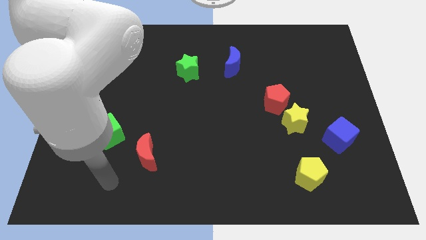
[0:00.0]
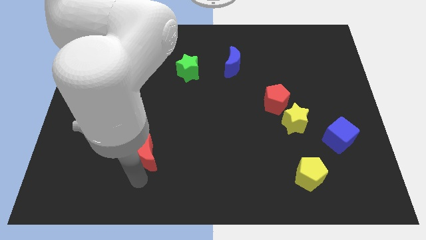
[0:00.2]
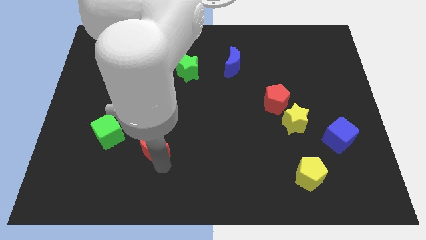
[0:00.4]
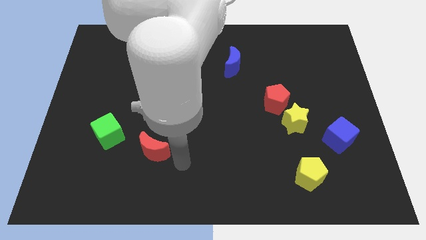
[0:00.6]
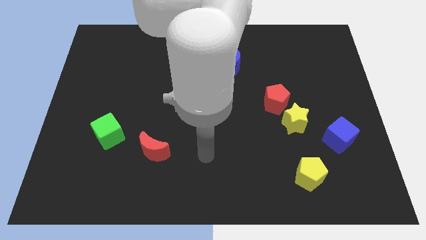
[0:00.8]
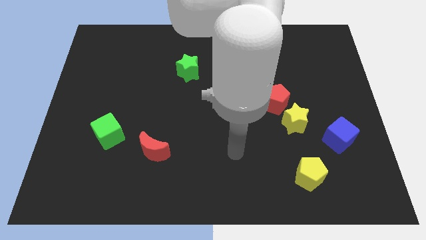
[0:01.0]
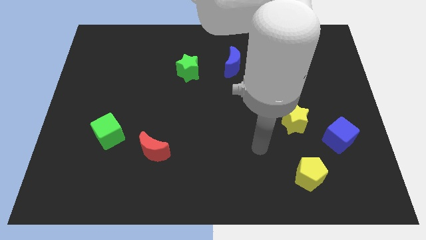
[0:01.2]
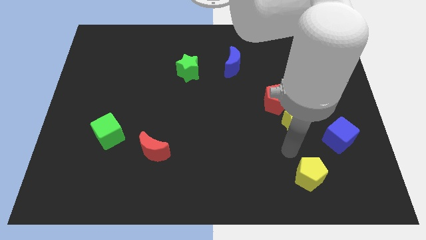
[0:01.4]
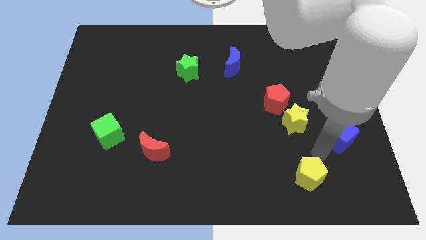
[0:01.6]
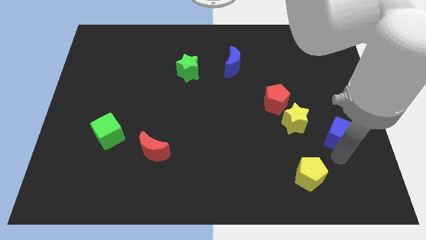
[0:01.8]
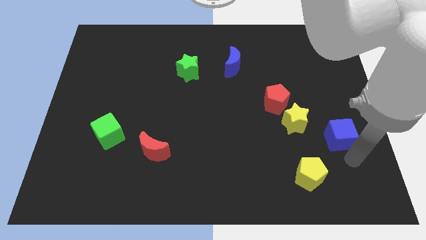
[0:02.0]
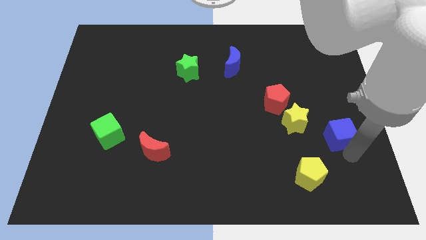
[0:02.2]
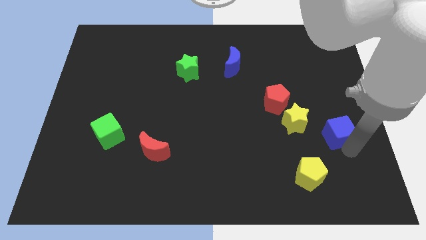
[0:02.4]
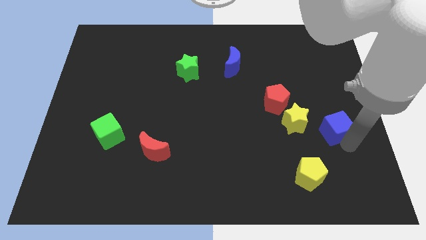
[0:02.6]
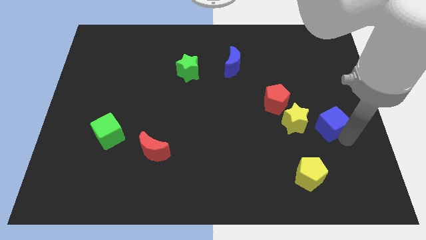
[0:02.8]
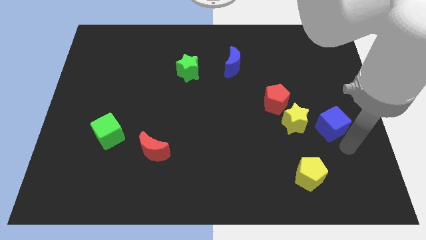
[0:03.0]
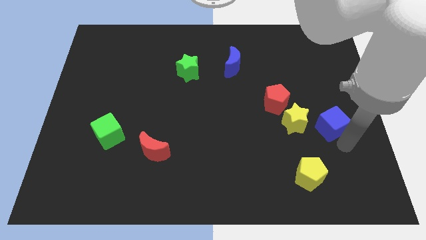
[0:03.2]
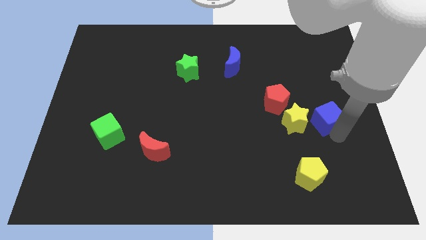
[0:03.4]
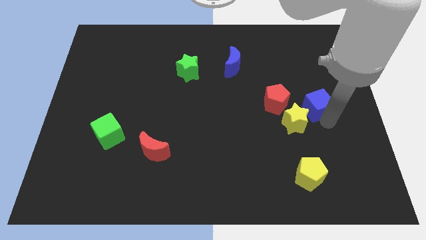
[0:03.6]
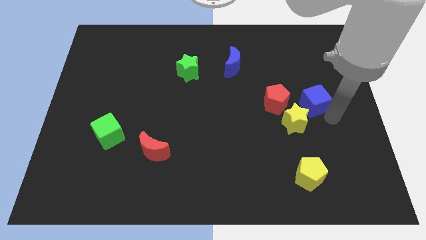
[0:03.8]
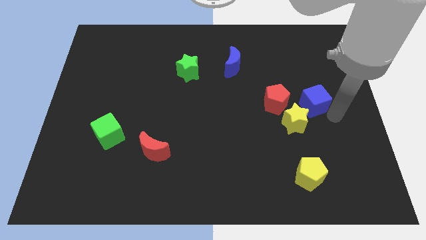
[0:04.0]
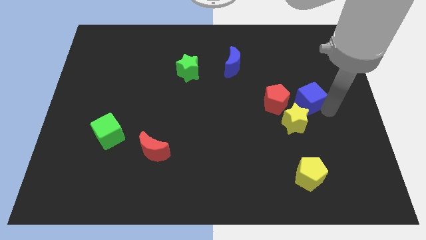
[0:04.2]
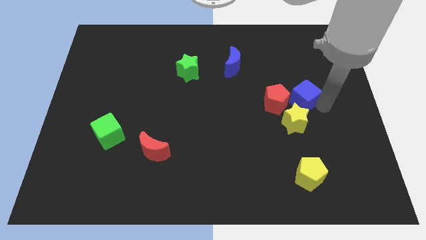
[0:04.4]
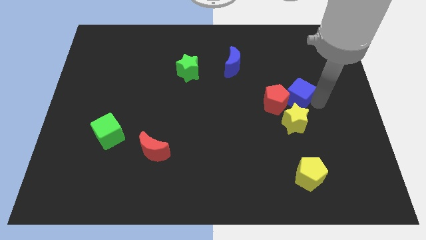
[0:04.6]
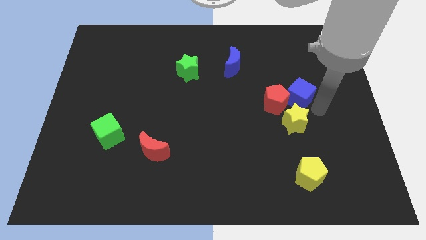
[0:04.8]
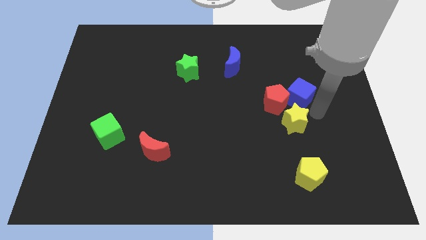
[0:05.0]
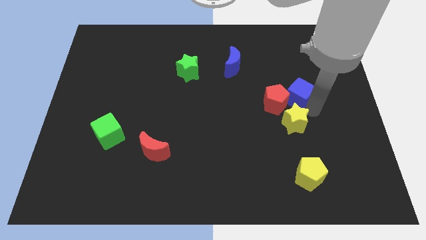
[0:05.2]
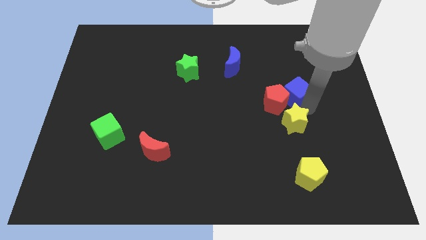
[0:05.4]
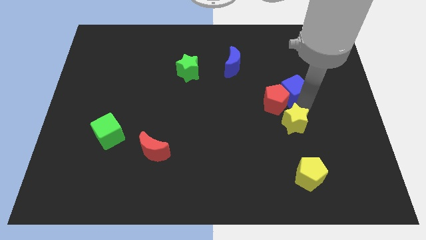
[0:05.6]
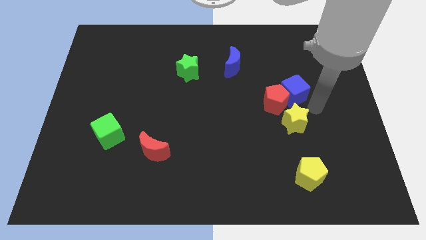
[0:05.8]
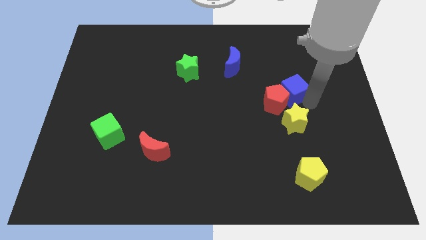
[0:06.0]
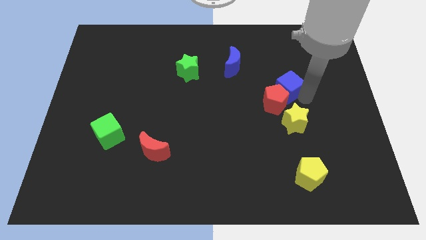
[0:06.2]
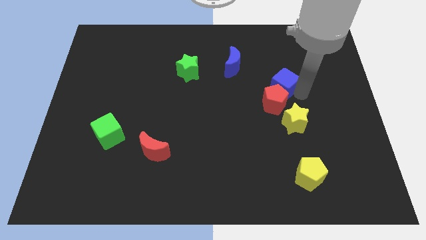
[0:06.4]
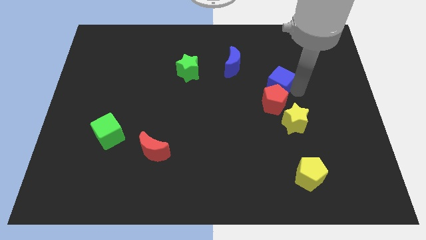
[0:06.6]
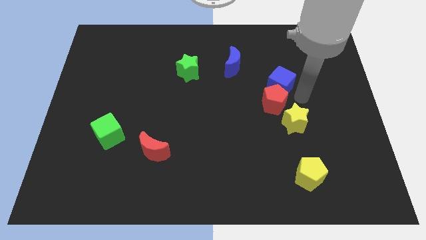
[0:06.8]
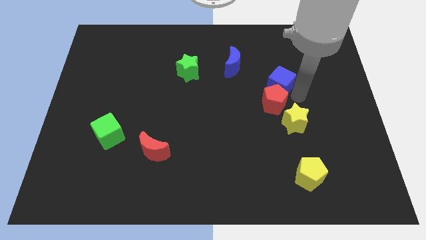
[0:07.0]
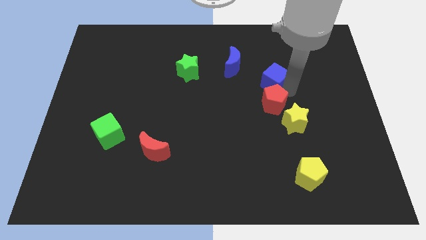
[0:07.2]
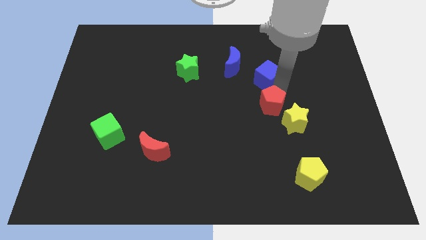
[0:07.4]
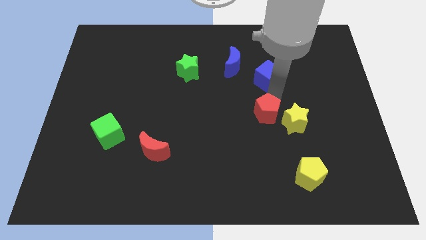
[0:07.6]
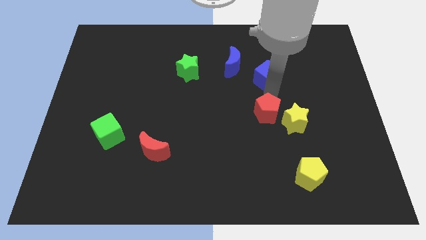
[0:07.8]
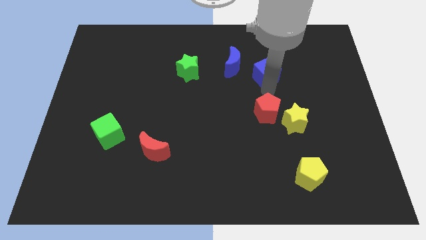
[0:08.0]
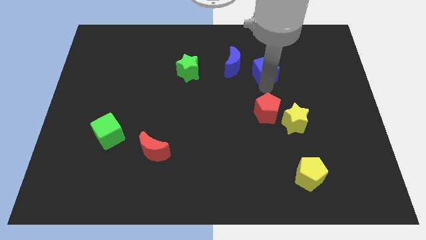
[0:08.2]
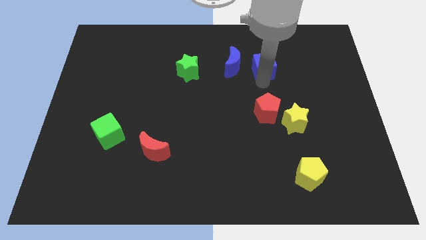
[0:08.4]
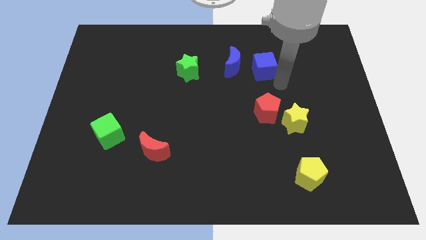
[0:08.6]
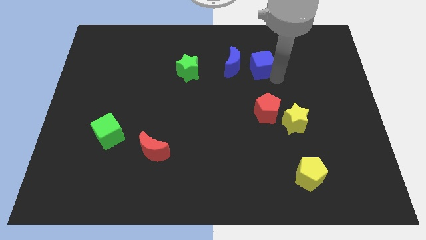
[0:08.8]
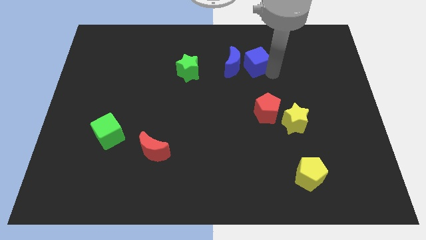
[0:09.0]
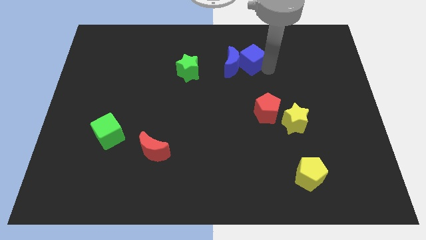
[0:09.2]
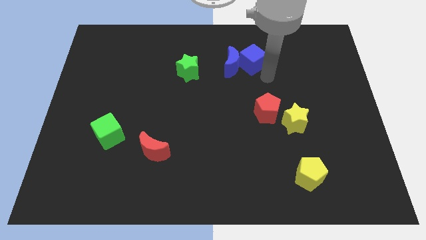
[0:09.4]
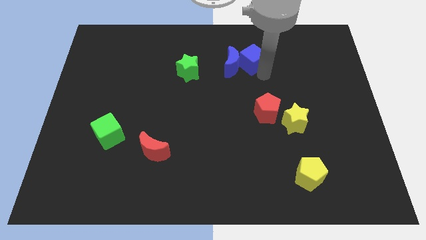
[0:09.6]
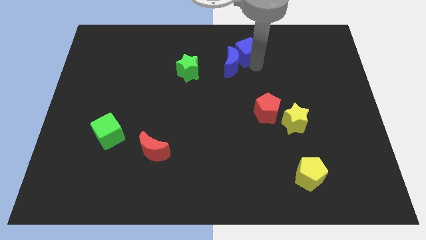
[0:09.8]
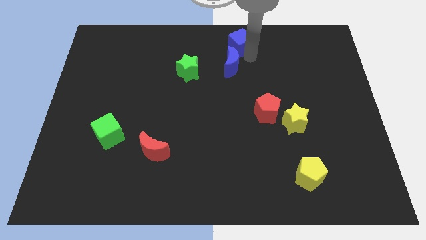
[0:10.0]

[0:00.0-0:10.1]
slide the blue cube to the top side

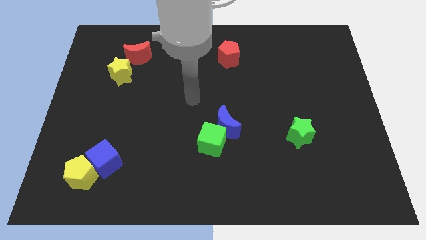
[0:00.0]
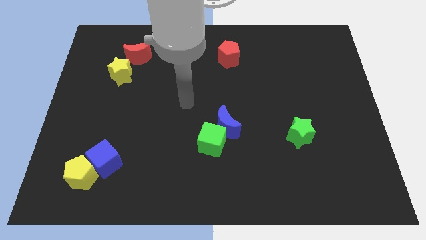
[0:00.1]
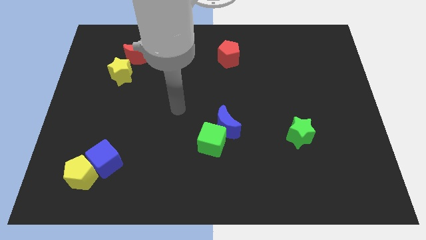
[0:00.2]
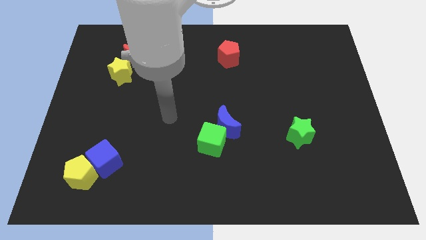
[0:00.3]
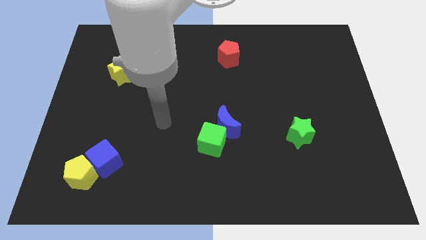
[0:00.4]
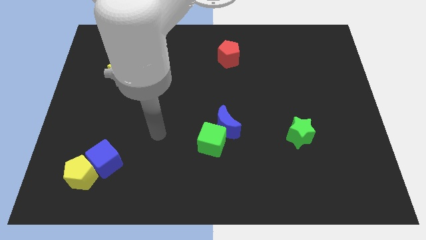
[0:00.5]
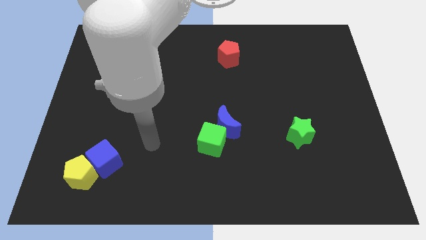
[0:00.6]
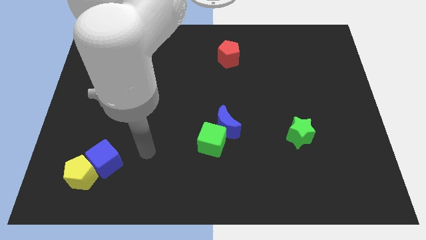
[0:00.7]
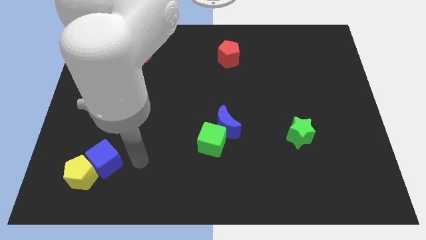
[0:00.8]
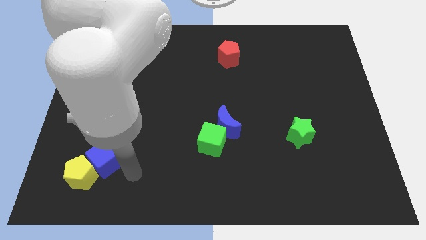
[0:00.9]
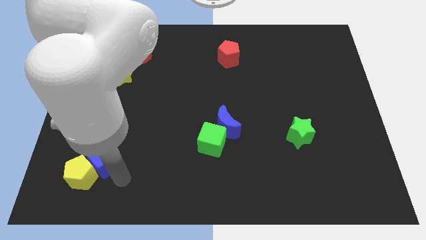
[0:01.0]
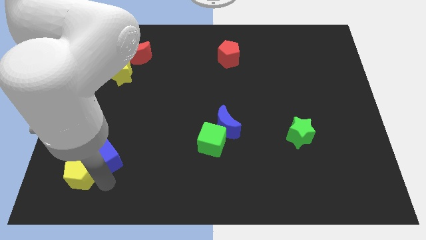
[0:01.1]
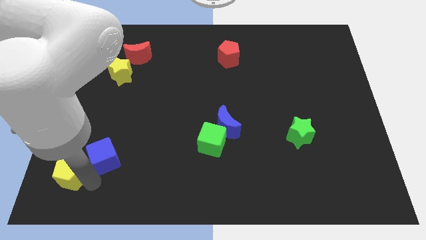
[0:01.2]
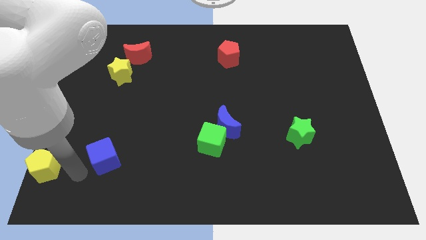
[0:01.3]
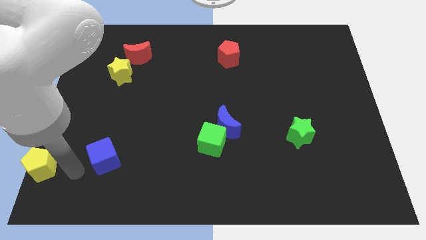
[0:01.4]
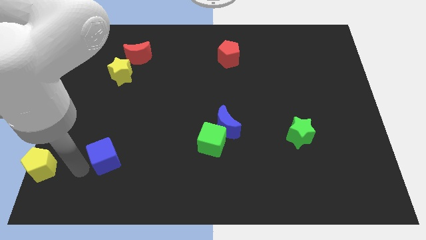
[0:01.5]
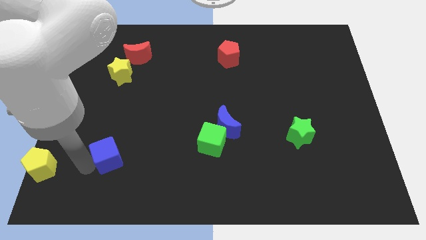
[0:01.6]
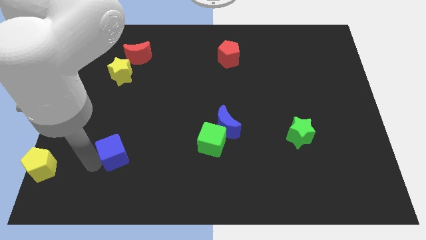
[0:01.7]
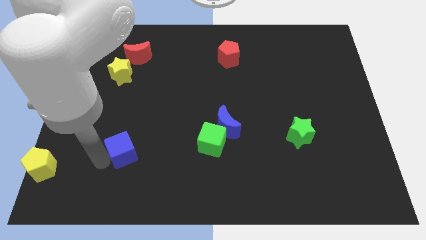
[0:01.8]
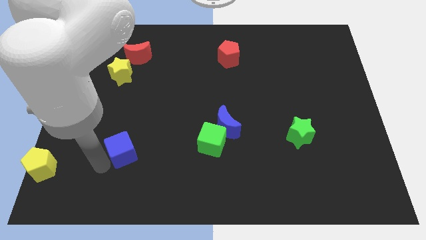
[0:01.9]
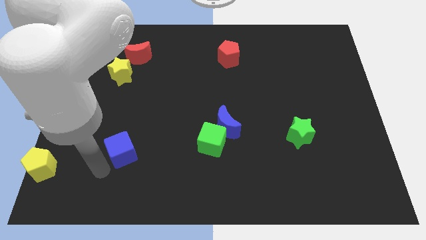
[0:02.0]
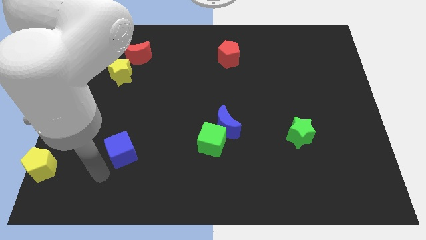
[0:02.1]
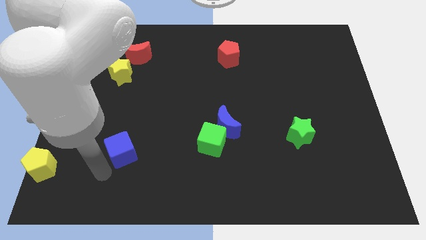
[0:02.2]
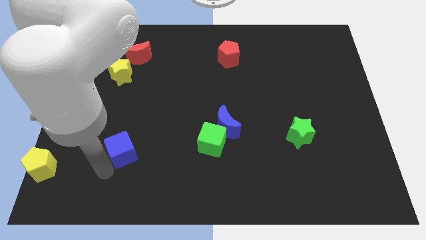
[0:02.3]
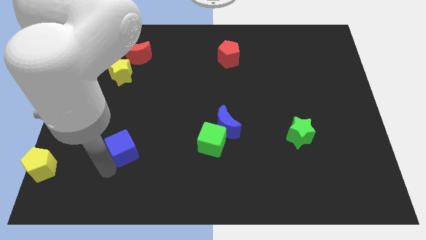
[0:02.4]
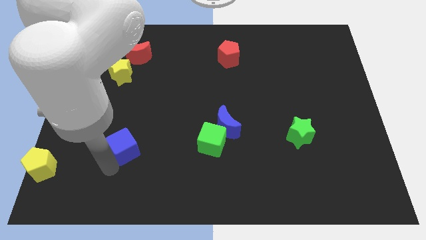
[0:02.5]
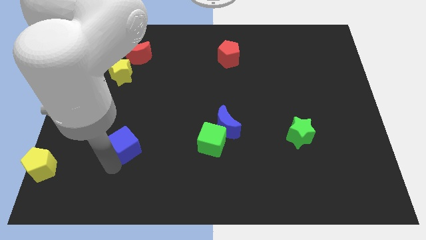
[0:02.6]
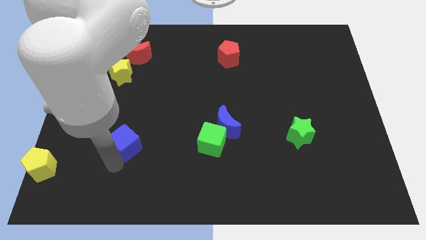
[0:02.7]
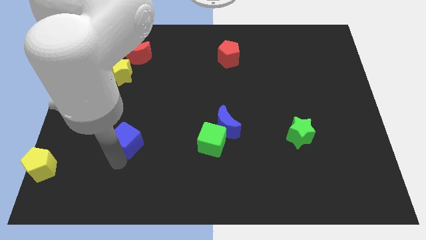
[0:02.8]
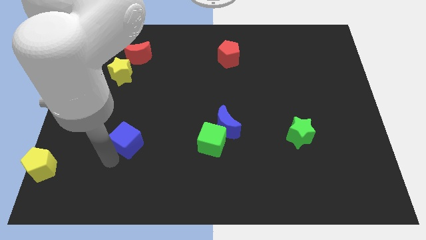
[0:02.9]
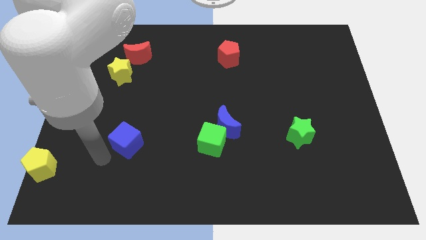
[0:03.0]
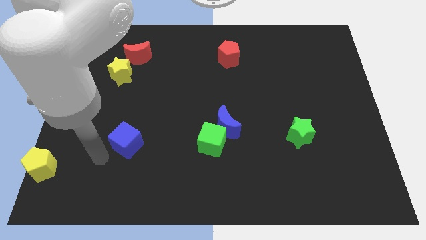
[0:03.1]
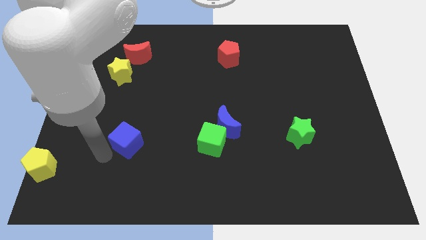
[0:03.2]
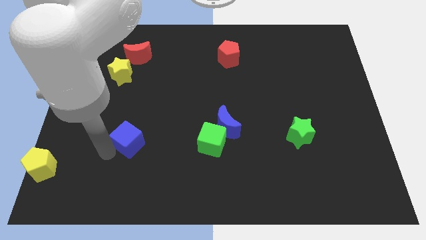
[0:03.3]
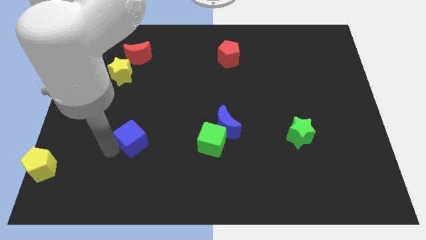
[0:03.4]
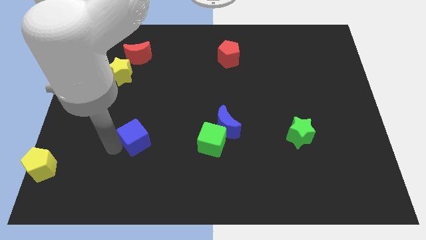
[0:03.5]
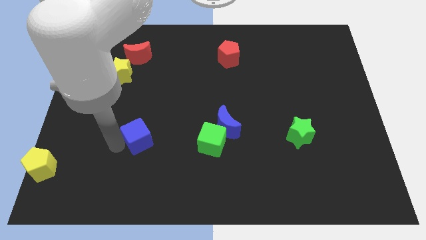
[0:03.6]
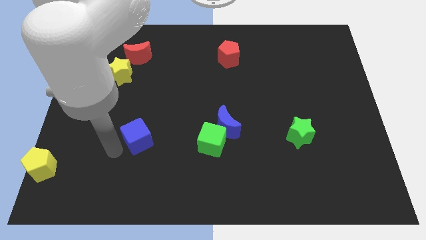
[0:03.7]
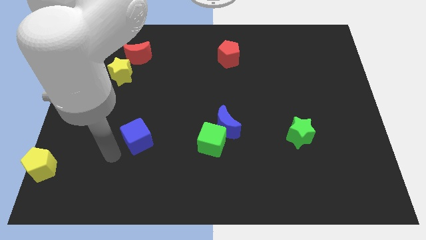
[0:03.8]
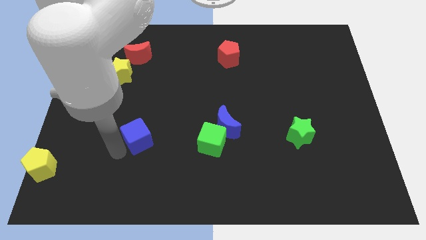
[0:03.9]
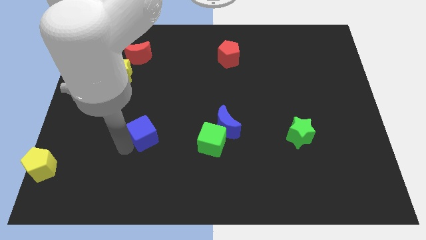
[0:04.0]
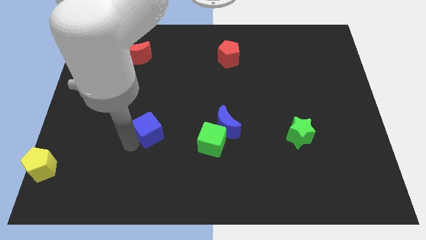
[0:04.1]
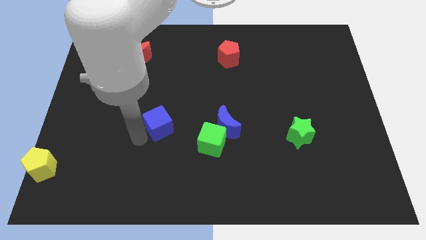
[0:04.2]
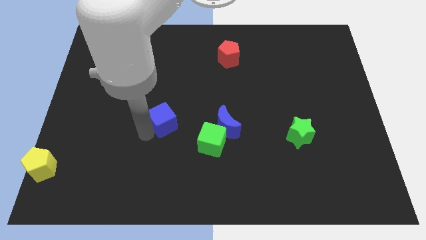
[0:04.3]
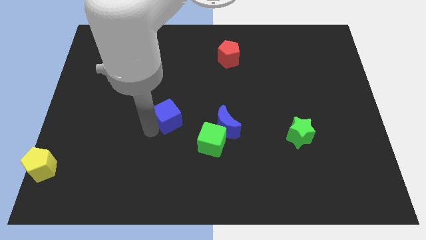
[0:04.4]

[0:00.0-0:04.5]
push the blue cube to the center
